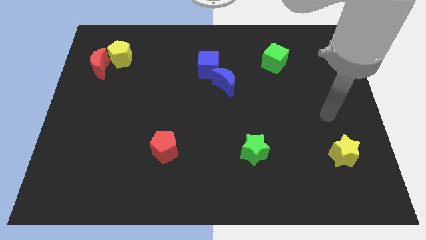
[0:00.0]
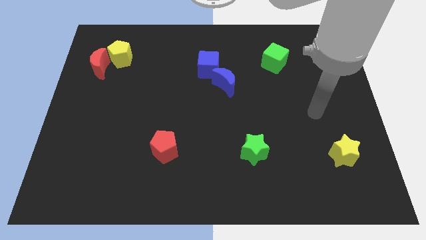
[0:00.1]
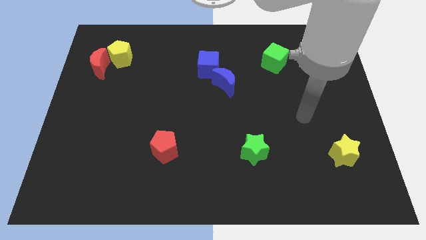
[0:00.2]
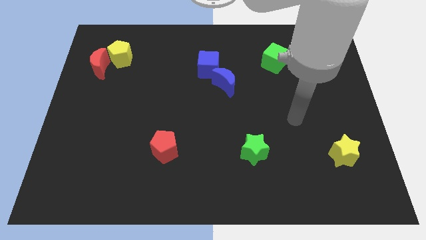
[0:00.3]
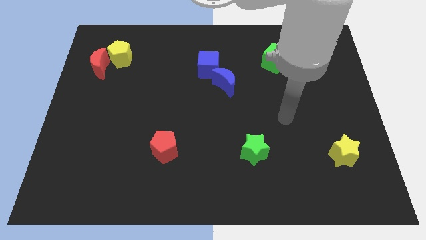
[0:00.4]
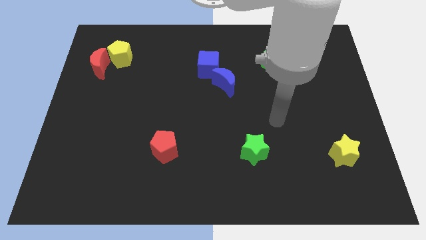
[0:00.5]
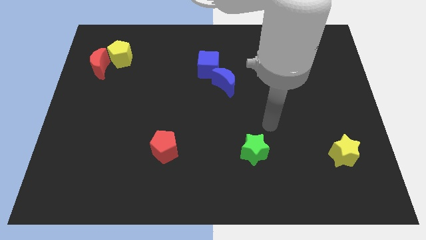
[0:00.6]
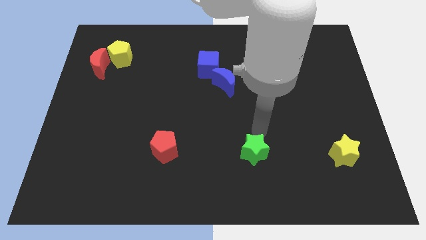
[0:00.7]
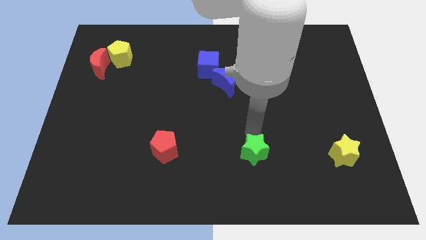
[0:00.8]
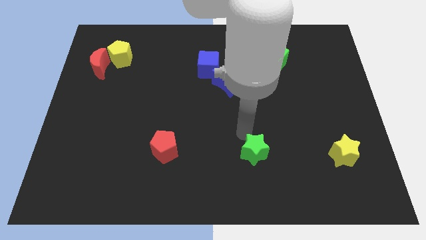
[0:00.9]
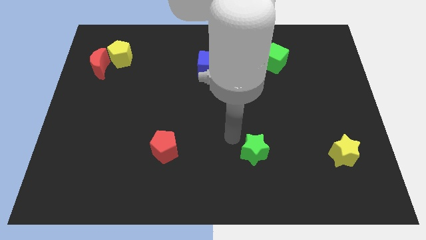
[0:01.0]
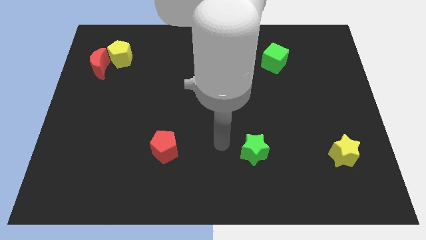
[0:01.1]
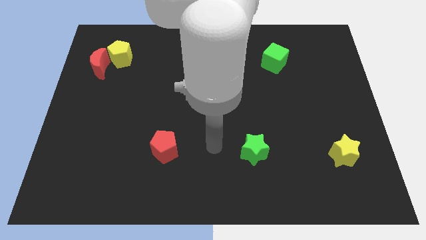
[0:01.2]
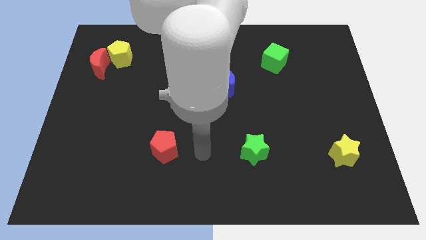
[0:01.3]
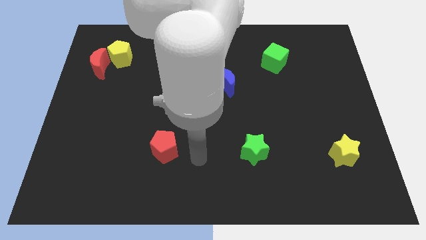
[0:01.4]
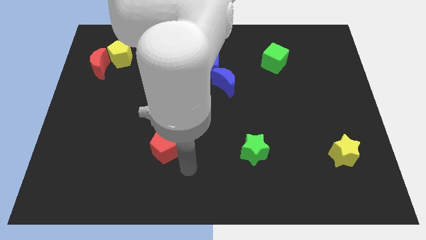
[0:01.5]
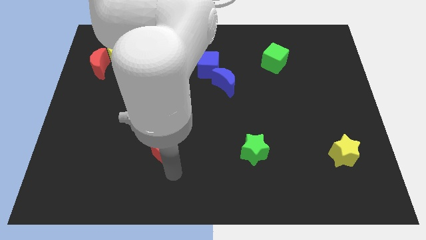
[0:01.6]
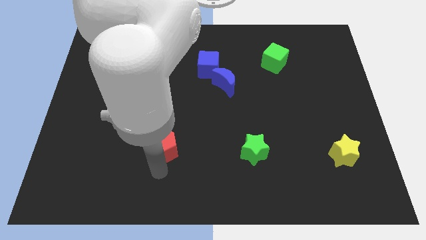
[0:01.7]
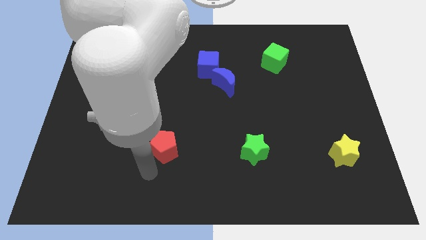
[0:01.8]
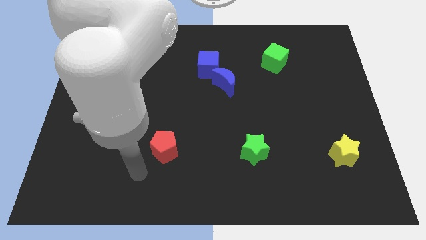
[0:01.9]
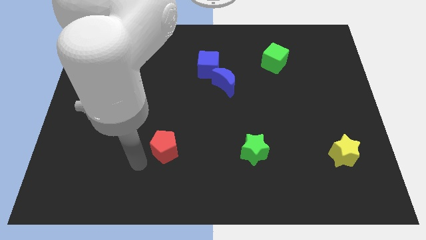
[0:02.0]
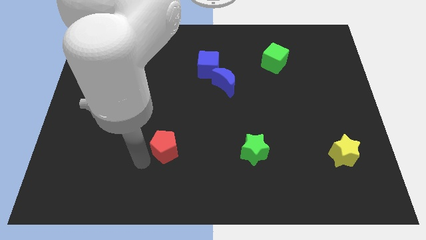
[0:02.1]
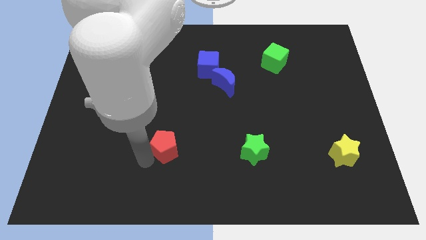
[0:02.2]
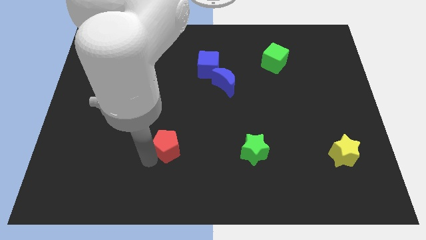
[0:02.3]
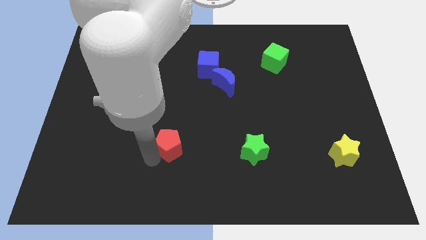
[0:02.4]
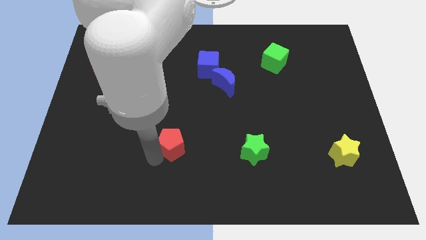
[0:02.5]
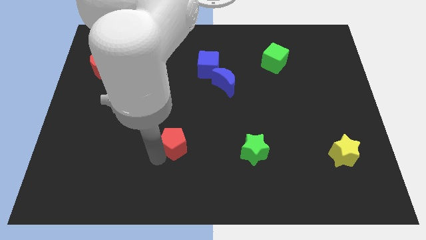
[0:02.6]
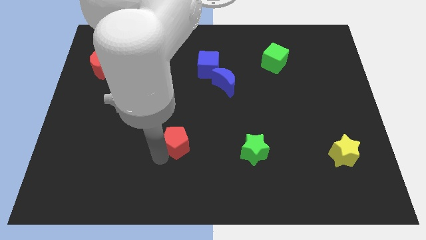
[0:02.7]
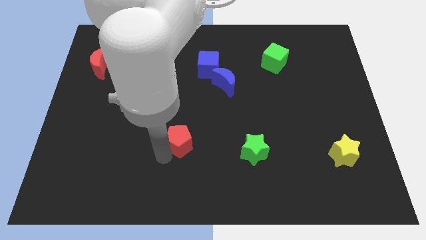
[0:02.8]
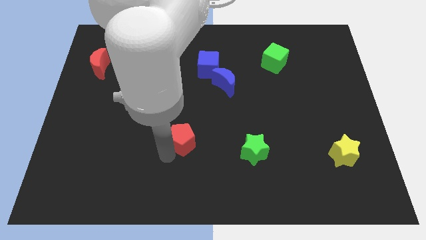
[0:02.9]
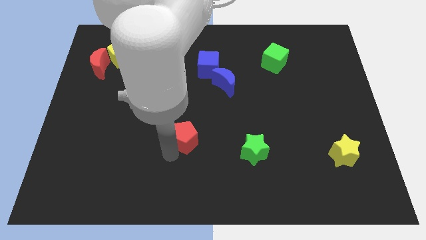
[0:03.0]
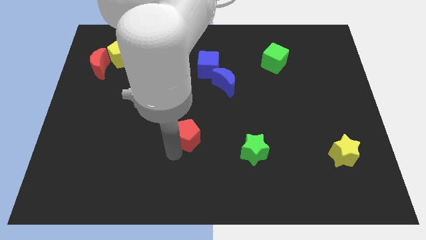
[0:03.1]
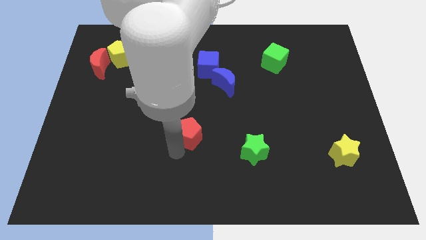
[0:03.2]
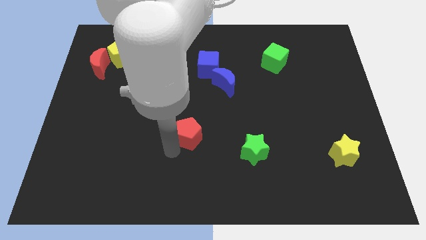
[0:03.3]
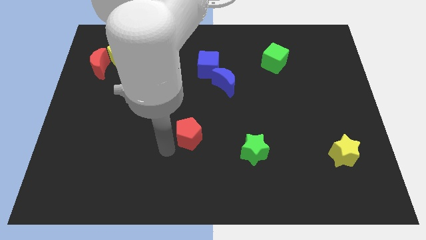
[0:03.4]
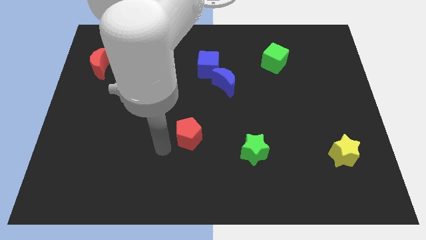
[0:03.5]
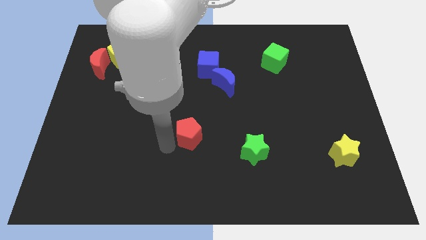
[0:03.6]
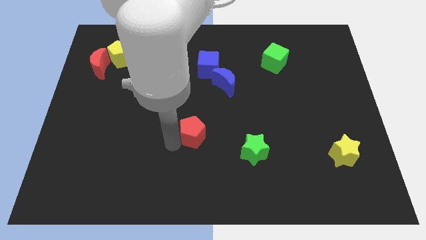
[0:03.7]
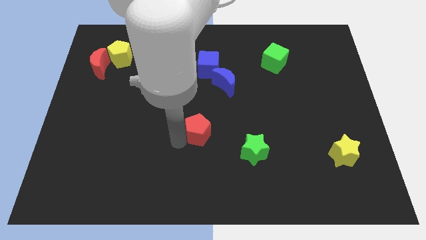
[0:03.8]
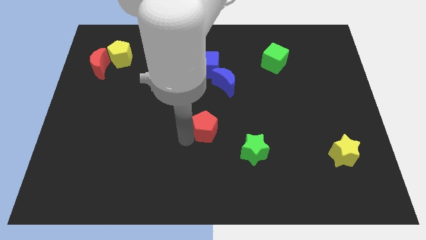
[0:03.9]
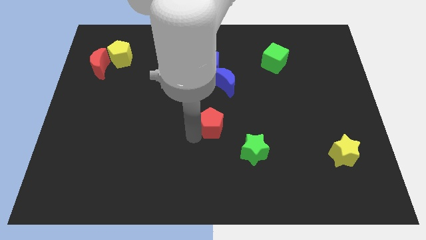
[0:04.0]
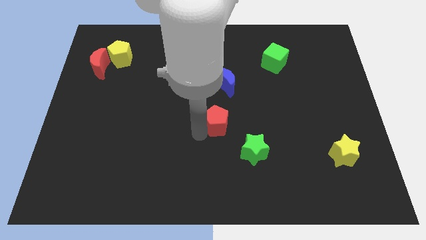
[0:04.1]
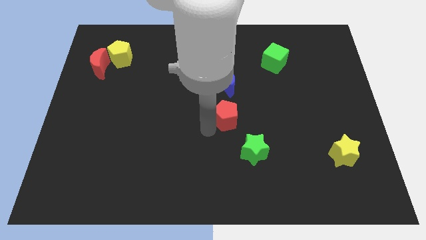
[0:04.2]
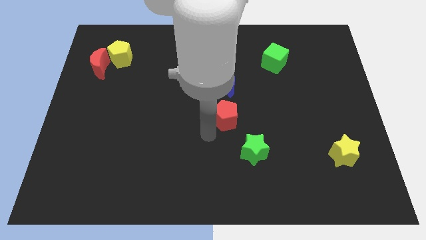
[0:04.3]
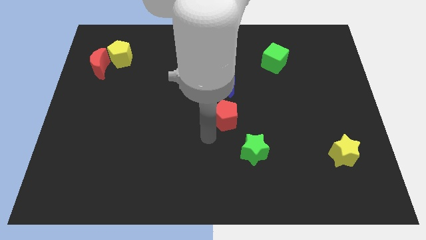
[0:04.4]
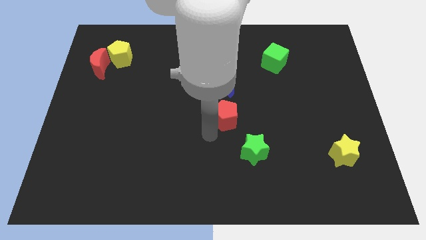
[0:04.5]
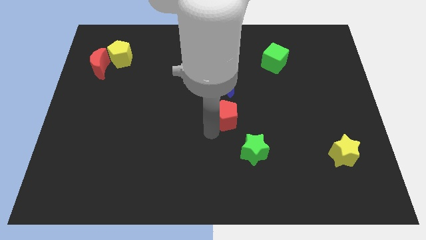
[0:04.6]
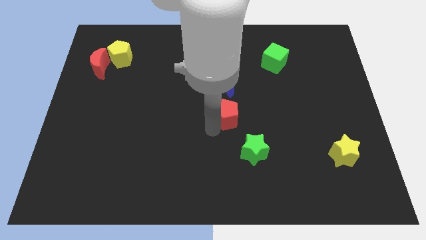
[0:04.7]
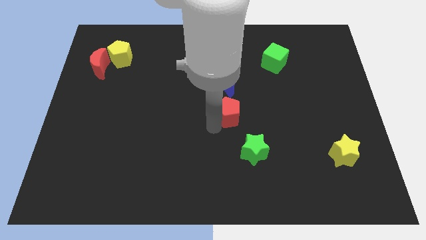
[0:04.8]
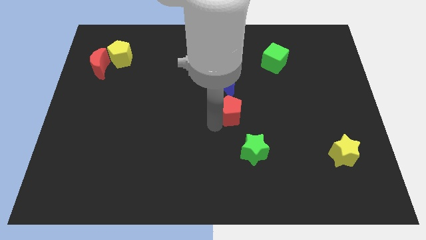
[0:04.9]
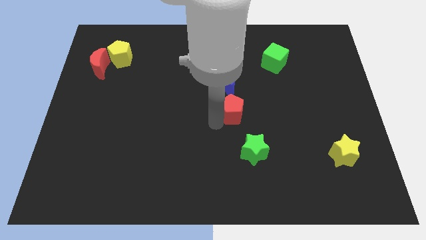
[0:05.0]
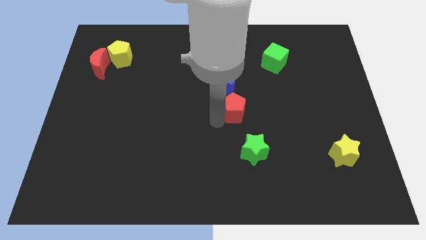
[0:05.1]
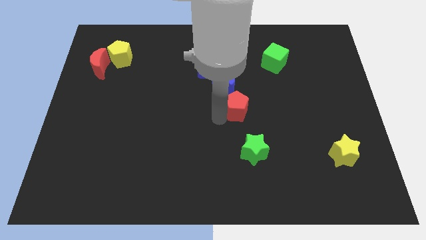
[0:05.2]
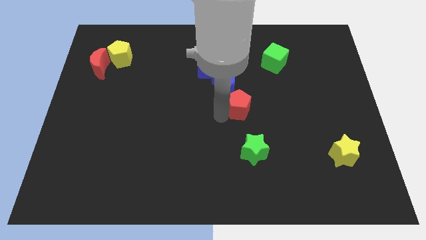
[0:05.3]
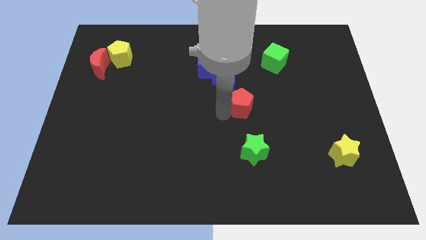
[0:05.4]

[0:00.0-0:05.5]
push the red pentagon diagonally up and to the right

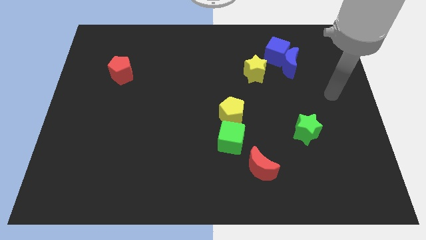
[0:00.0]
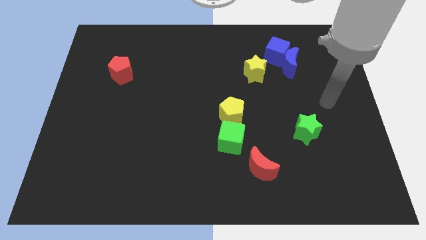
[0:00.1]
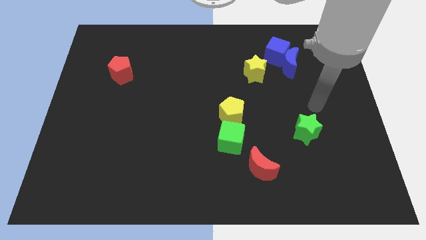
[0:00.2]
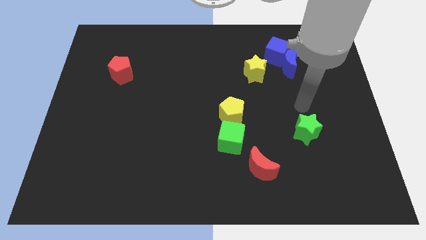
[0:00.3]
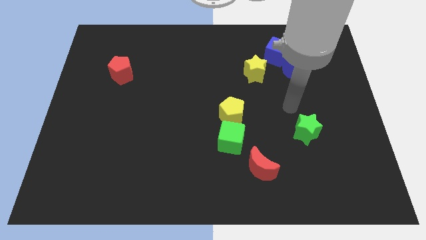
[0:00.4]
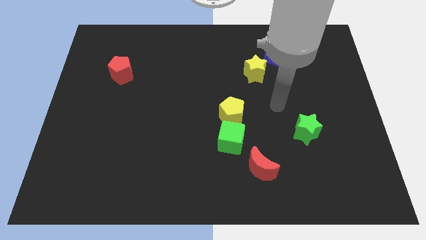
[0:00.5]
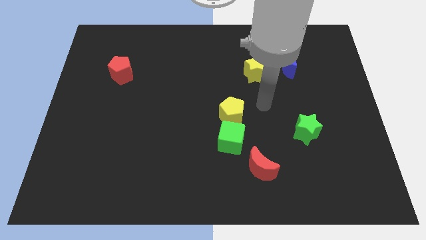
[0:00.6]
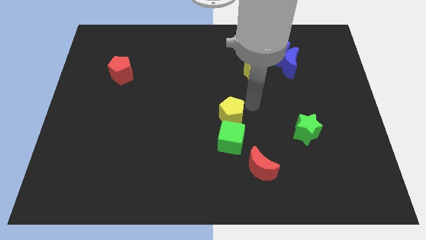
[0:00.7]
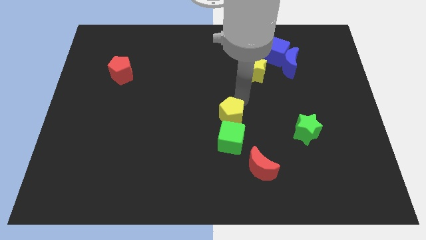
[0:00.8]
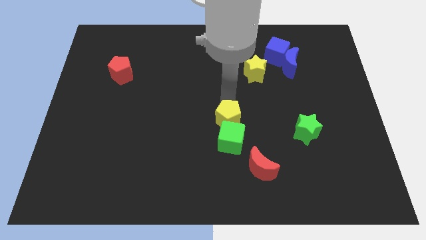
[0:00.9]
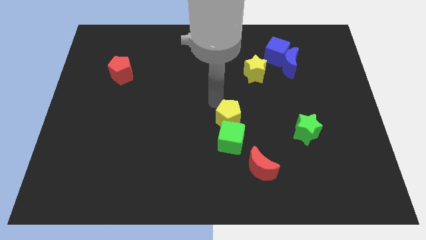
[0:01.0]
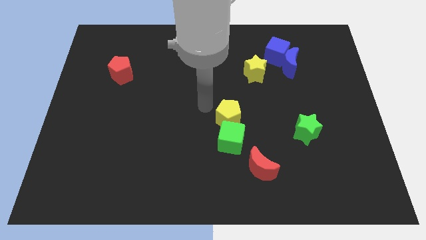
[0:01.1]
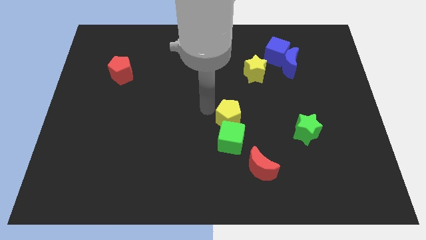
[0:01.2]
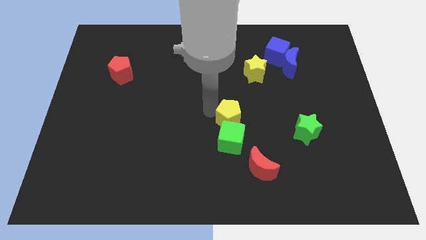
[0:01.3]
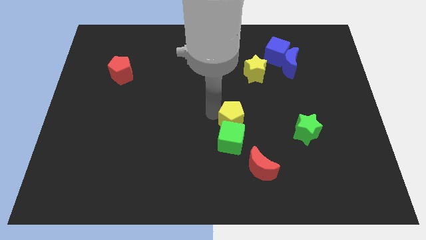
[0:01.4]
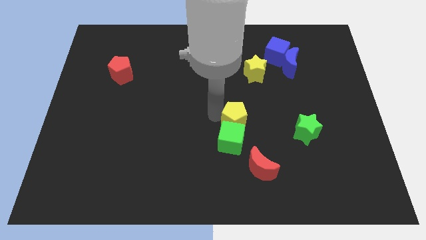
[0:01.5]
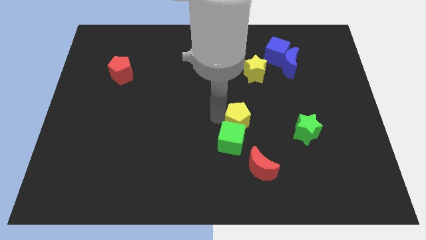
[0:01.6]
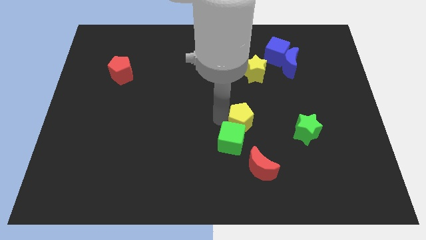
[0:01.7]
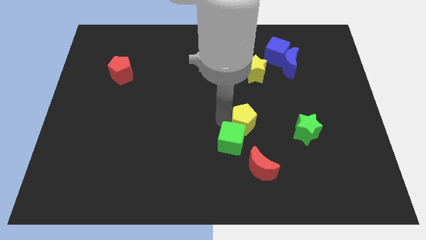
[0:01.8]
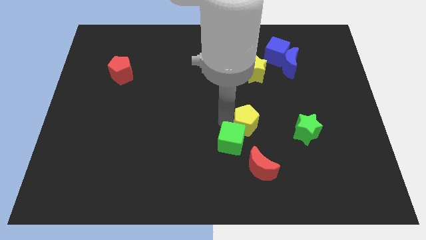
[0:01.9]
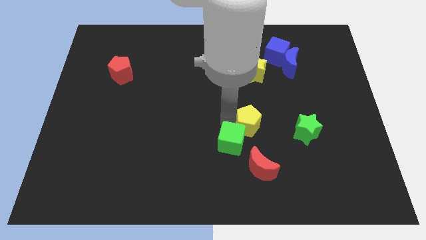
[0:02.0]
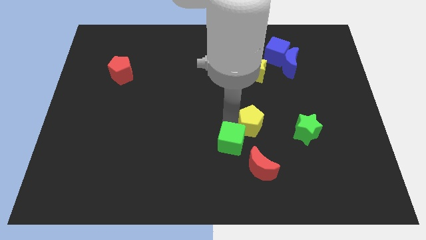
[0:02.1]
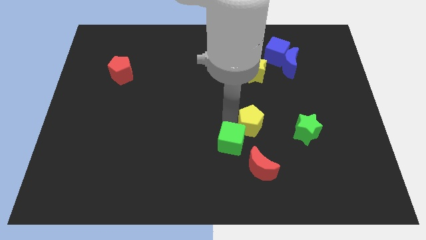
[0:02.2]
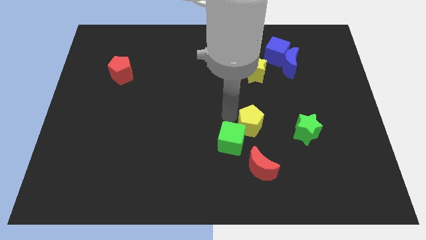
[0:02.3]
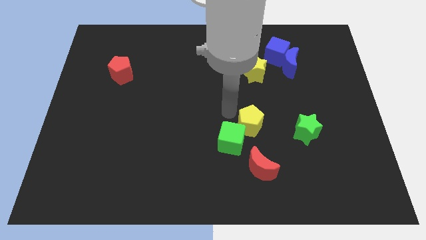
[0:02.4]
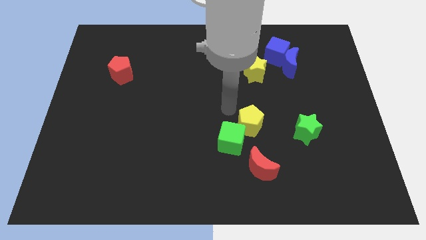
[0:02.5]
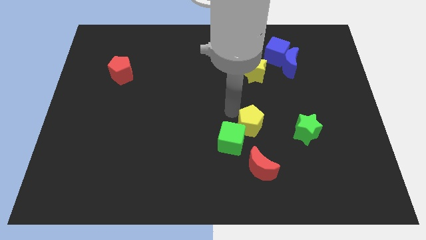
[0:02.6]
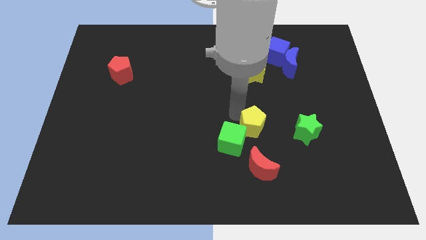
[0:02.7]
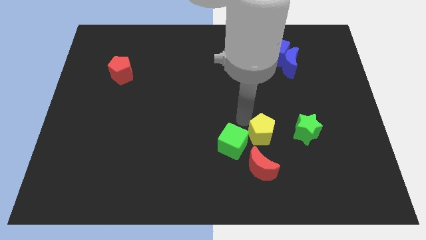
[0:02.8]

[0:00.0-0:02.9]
push the yellow pentagon a little bit down and to the right
